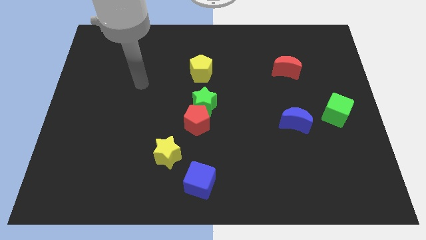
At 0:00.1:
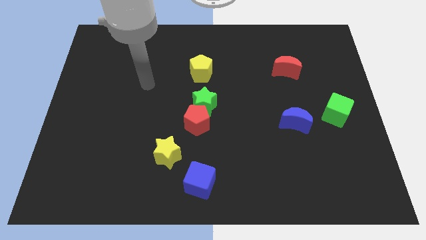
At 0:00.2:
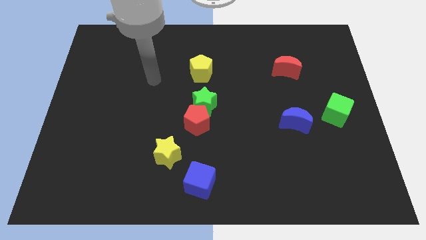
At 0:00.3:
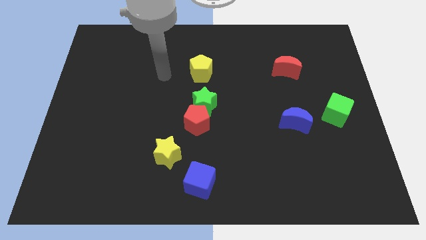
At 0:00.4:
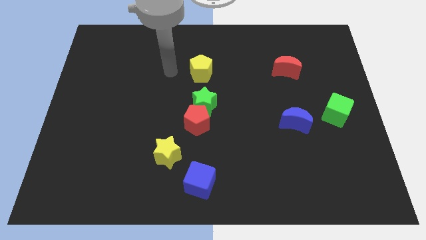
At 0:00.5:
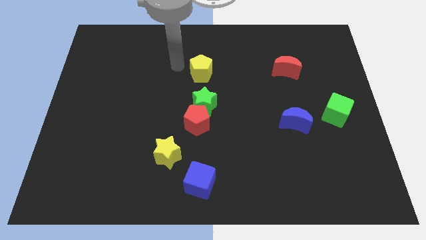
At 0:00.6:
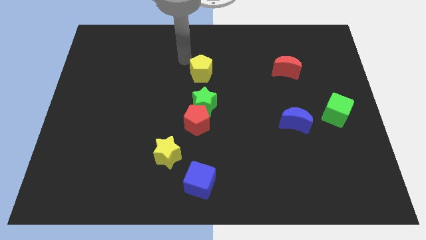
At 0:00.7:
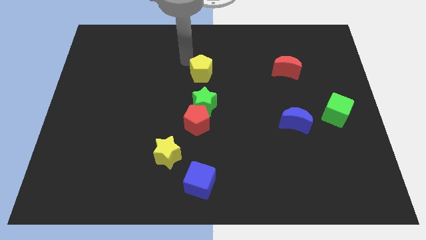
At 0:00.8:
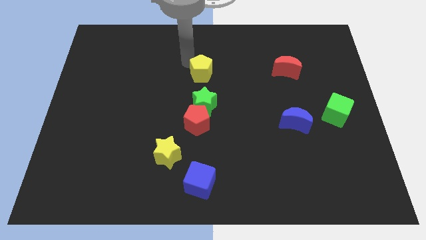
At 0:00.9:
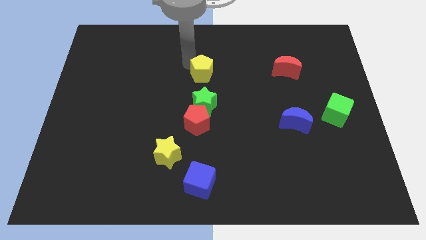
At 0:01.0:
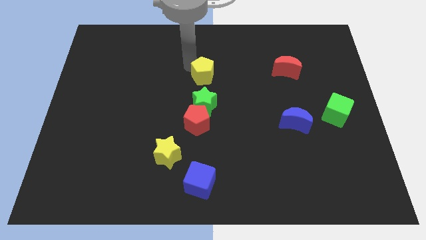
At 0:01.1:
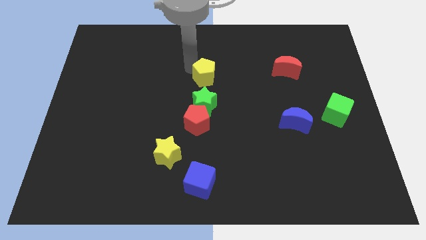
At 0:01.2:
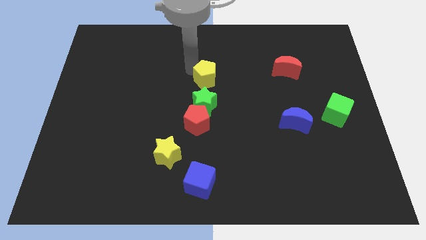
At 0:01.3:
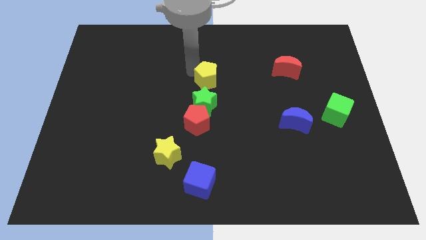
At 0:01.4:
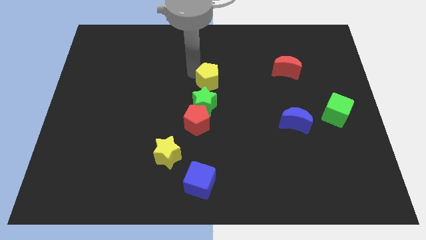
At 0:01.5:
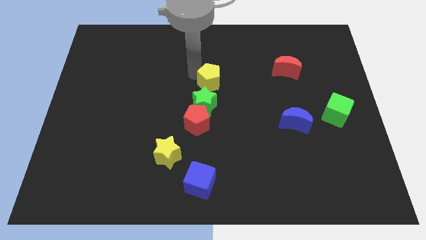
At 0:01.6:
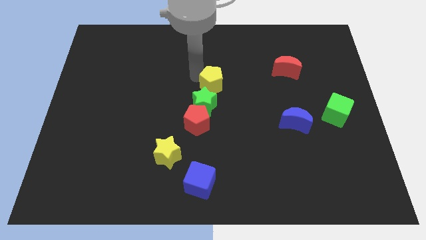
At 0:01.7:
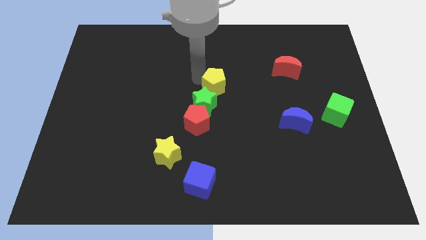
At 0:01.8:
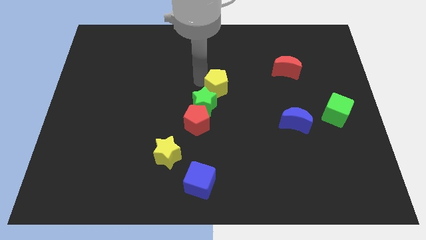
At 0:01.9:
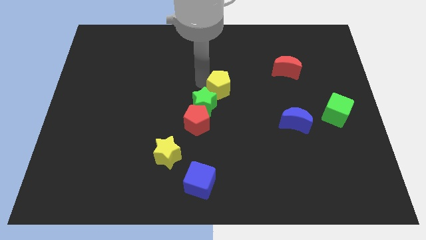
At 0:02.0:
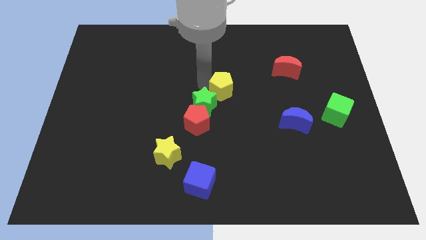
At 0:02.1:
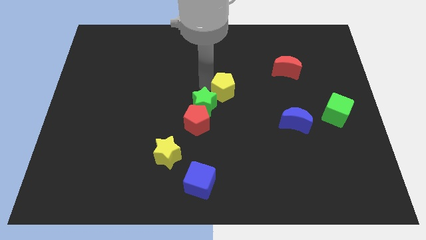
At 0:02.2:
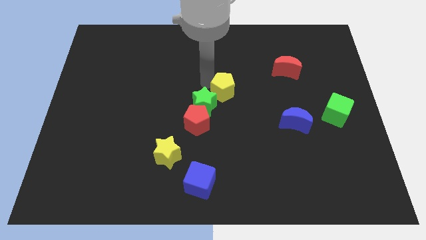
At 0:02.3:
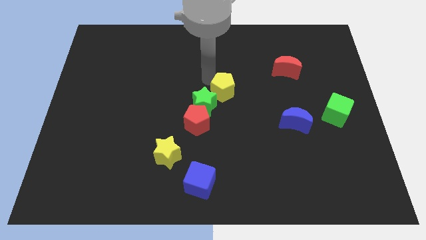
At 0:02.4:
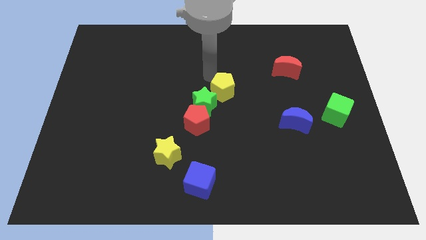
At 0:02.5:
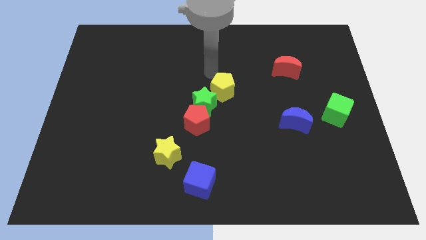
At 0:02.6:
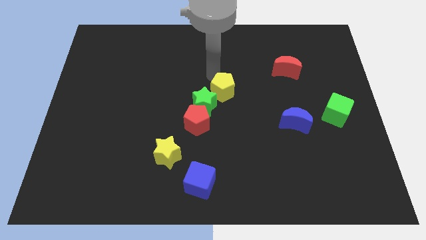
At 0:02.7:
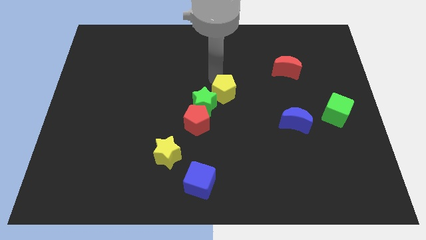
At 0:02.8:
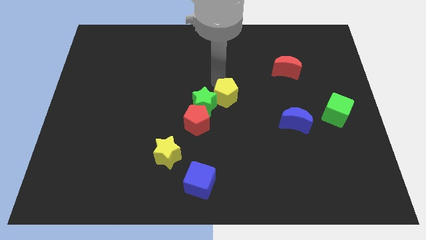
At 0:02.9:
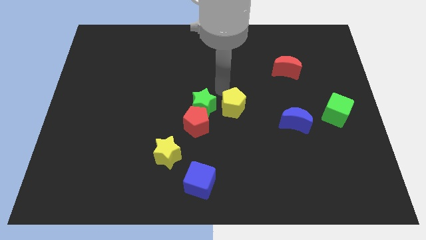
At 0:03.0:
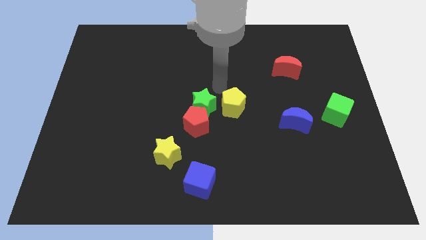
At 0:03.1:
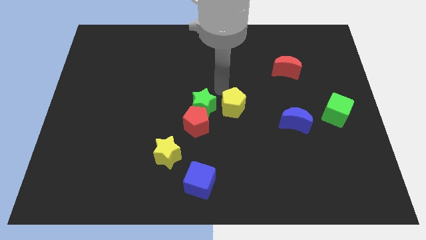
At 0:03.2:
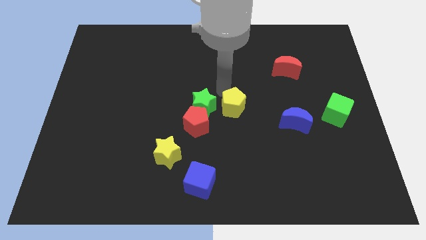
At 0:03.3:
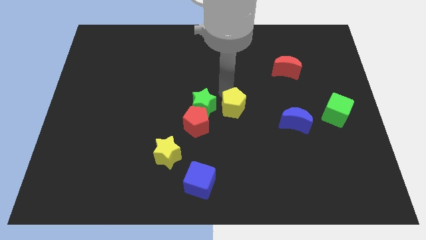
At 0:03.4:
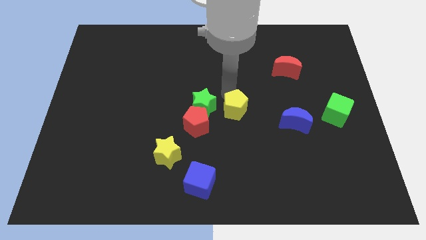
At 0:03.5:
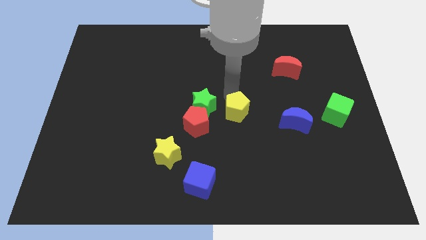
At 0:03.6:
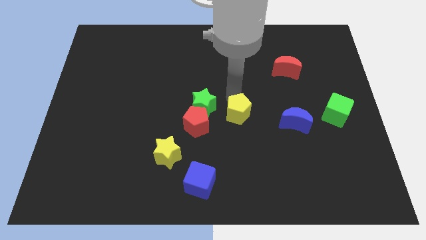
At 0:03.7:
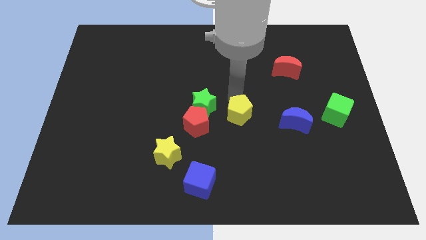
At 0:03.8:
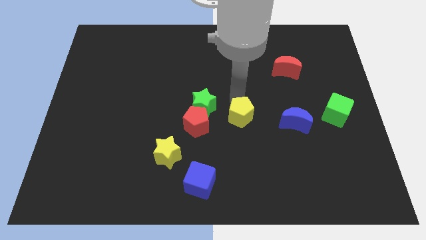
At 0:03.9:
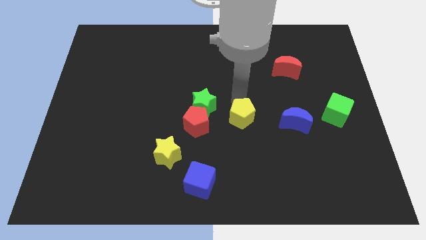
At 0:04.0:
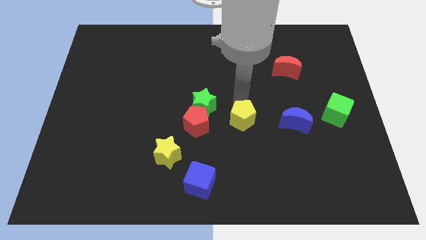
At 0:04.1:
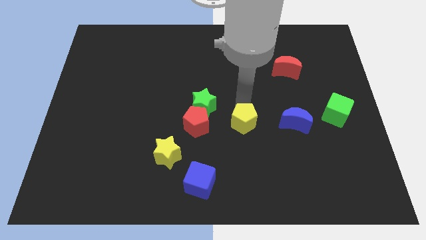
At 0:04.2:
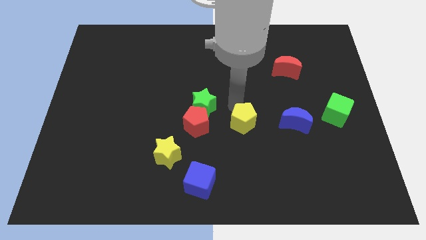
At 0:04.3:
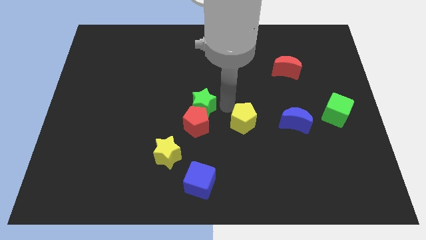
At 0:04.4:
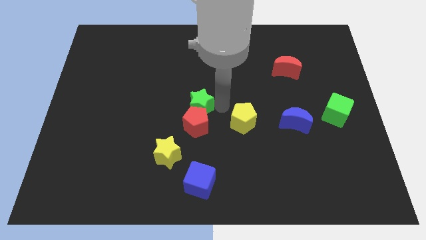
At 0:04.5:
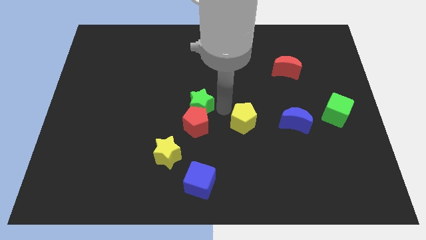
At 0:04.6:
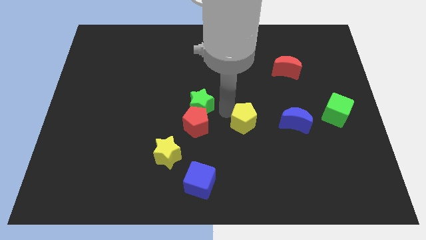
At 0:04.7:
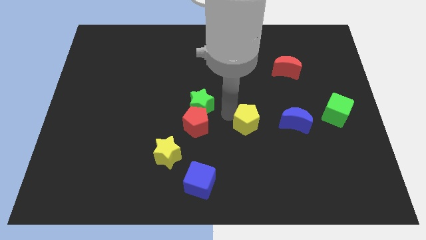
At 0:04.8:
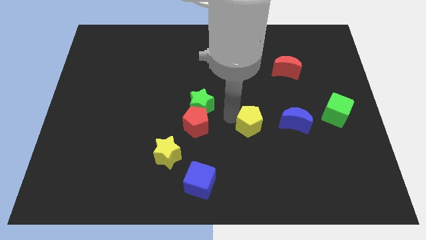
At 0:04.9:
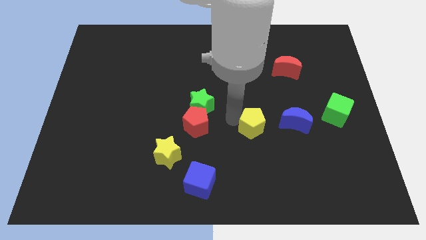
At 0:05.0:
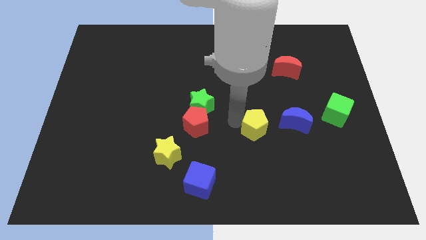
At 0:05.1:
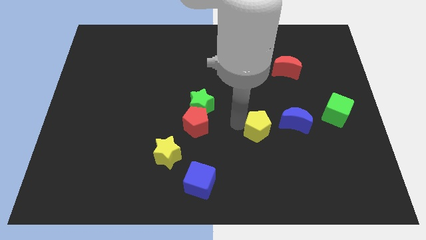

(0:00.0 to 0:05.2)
slide the yellow pentagon to the bottom left of the blue moon

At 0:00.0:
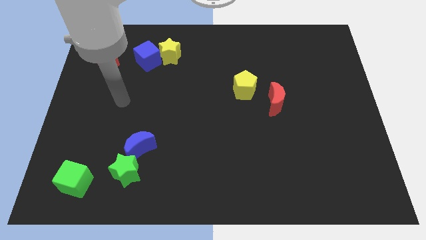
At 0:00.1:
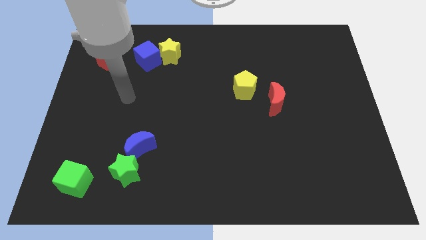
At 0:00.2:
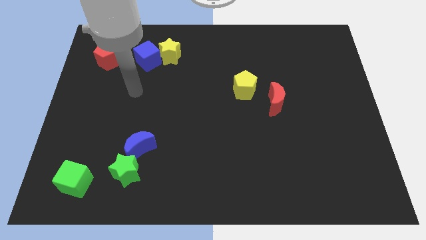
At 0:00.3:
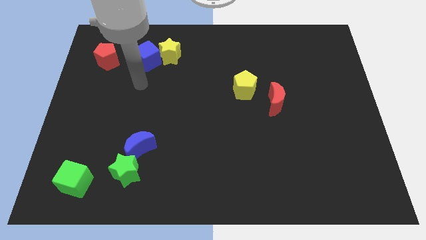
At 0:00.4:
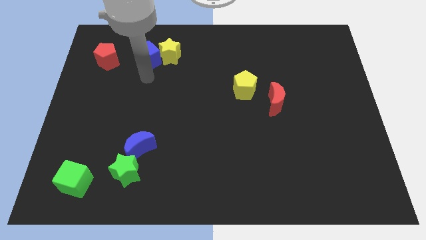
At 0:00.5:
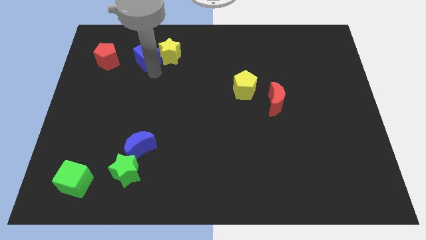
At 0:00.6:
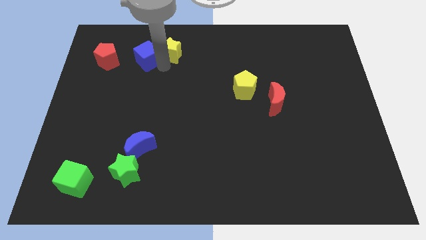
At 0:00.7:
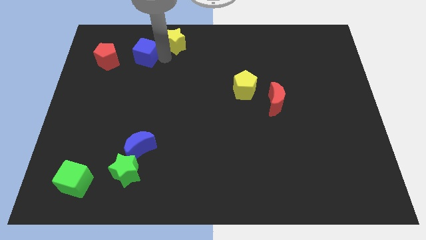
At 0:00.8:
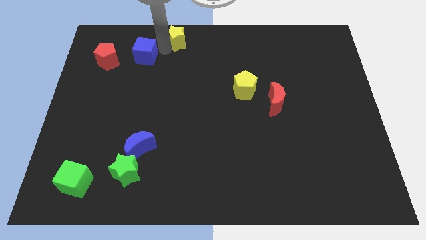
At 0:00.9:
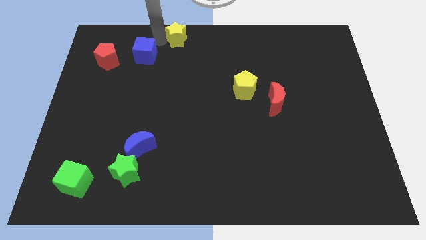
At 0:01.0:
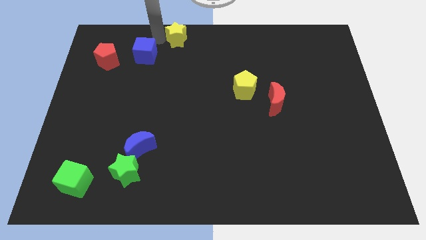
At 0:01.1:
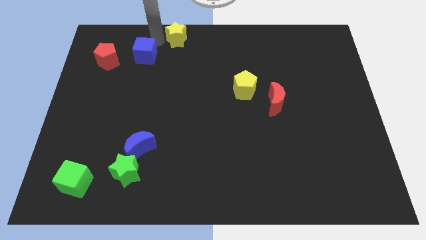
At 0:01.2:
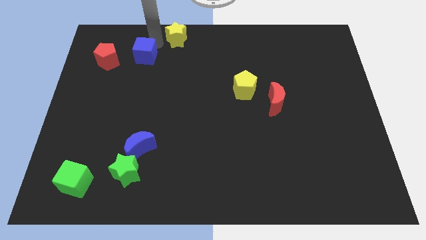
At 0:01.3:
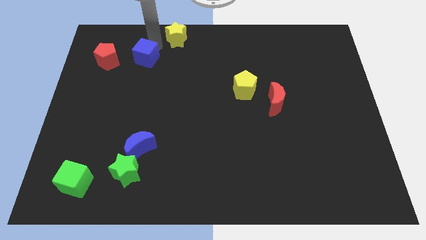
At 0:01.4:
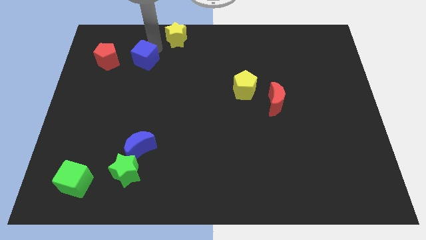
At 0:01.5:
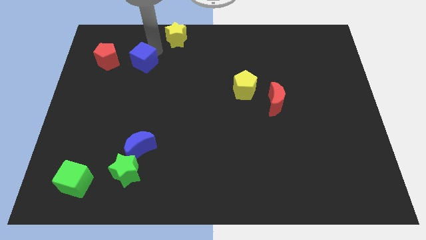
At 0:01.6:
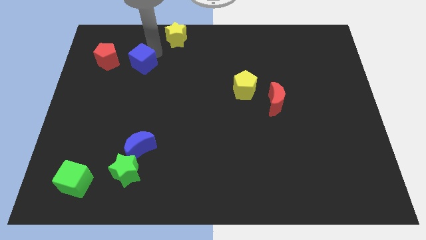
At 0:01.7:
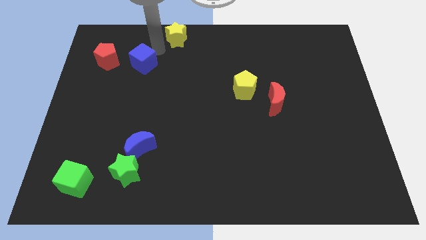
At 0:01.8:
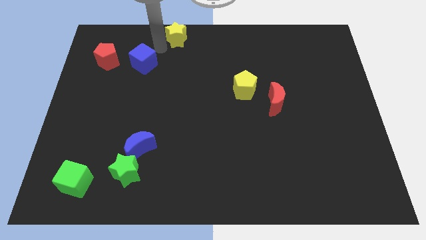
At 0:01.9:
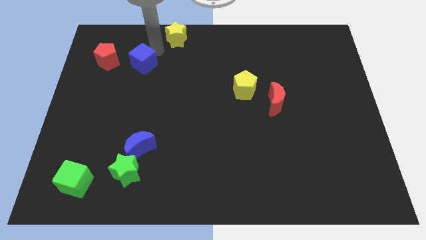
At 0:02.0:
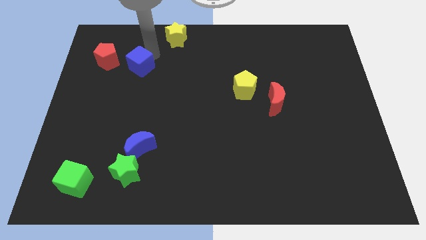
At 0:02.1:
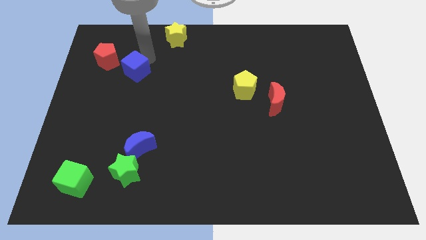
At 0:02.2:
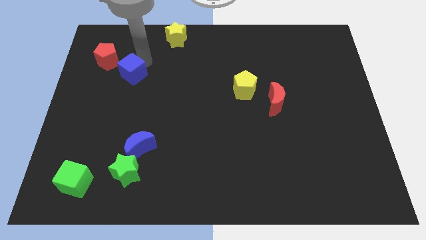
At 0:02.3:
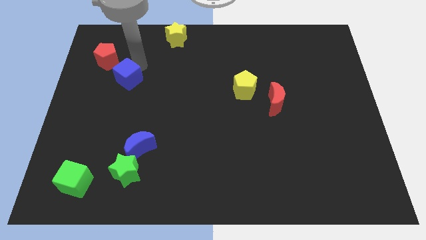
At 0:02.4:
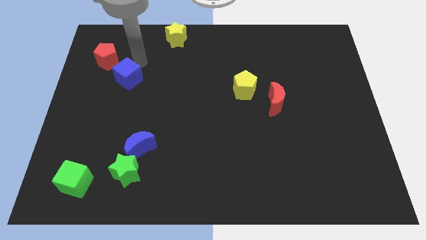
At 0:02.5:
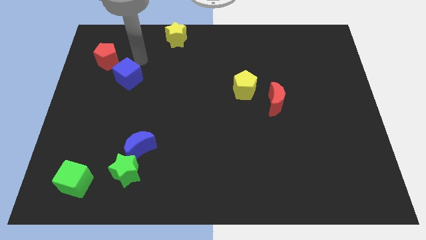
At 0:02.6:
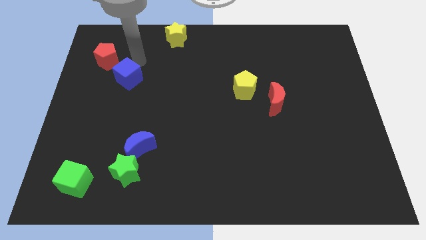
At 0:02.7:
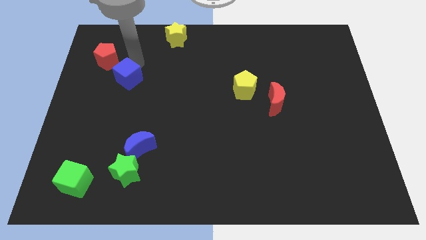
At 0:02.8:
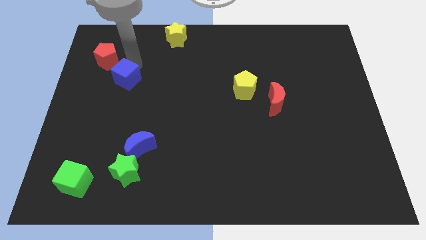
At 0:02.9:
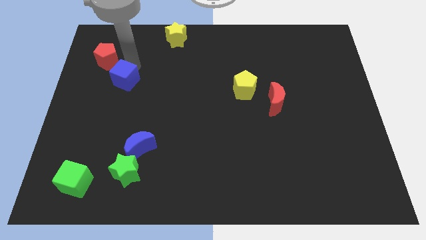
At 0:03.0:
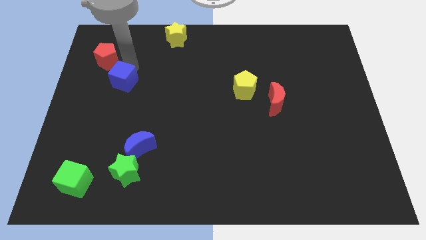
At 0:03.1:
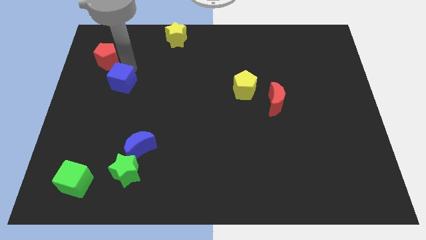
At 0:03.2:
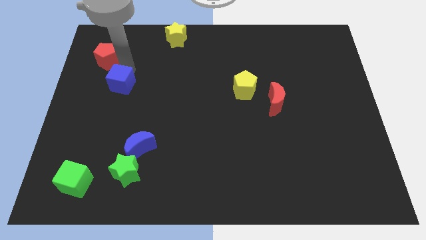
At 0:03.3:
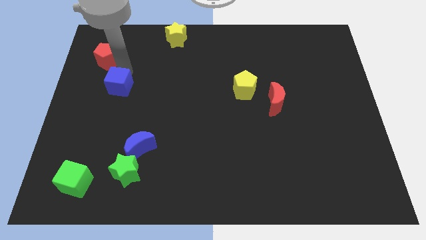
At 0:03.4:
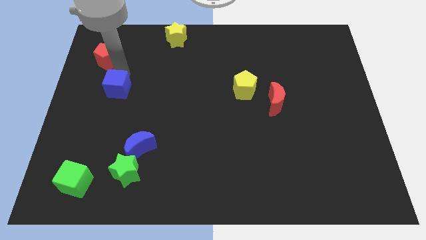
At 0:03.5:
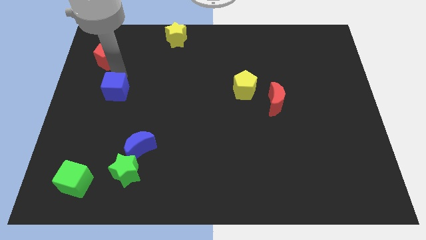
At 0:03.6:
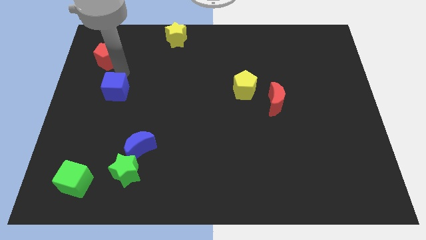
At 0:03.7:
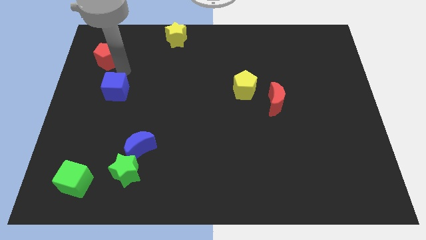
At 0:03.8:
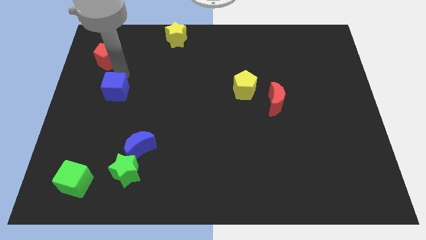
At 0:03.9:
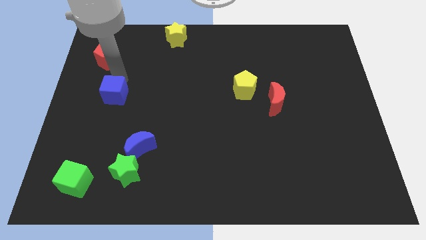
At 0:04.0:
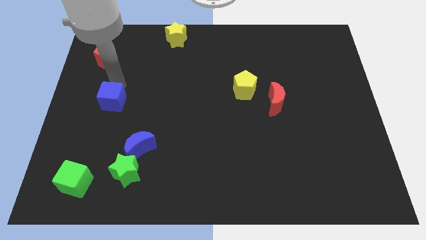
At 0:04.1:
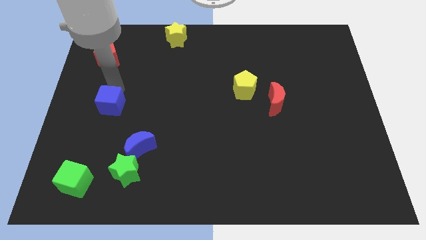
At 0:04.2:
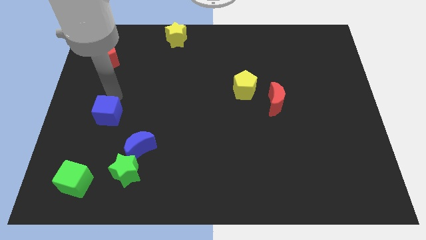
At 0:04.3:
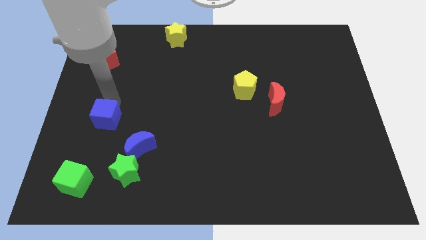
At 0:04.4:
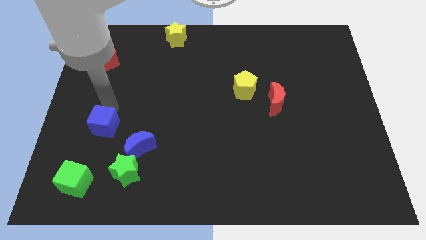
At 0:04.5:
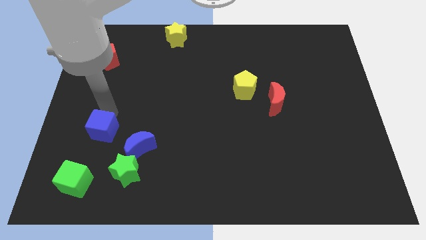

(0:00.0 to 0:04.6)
put the blue cube just left of the blue moon
